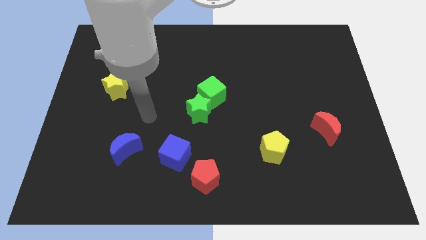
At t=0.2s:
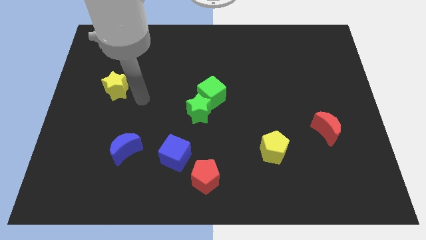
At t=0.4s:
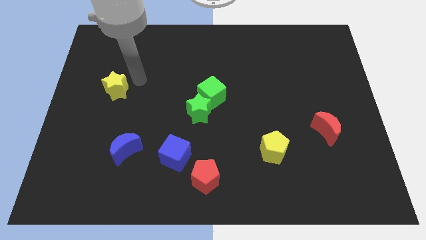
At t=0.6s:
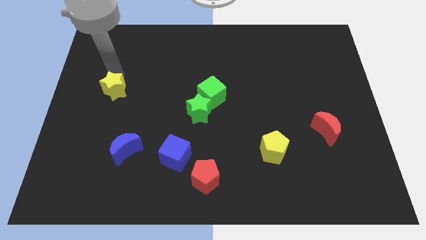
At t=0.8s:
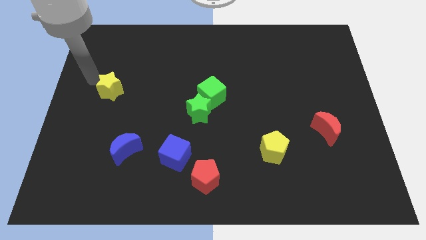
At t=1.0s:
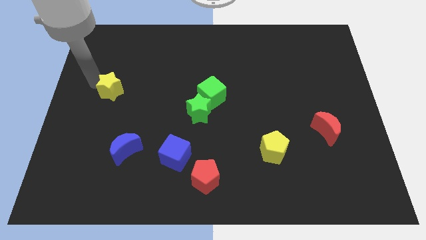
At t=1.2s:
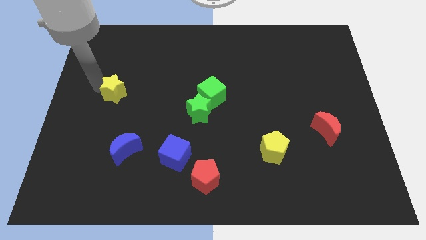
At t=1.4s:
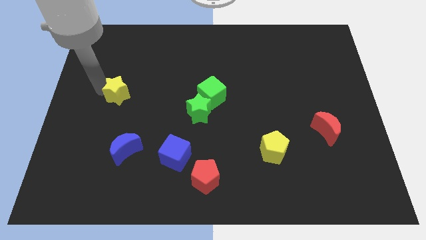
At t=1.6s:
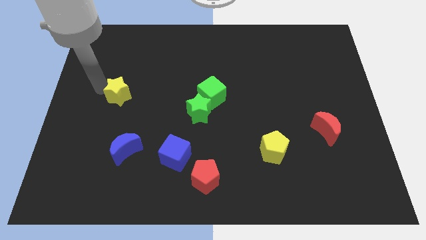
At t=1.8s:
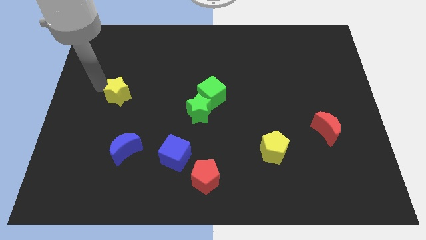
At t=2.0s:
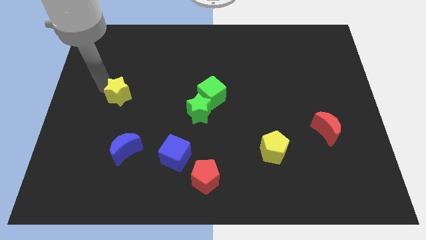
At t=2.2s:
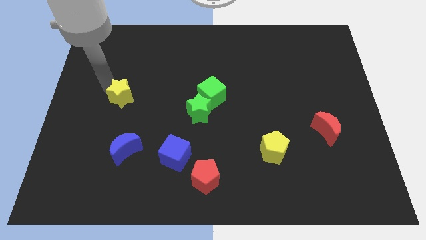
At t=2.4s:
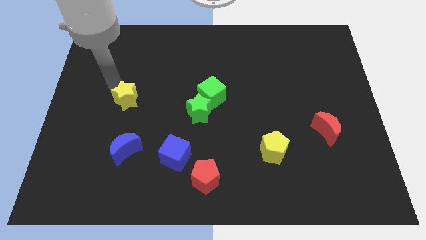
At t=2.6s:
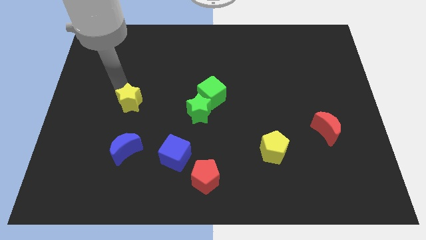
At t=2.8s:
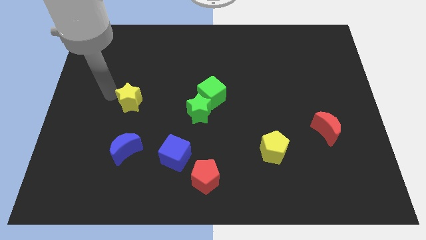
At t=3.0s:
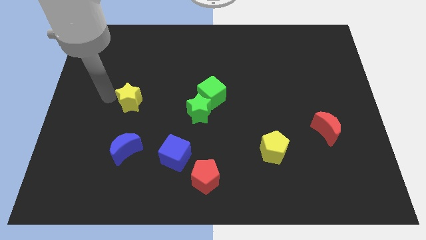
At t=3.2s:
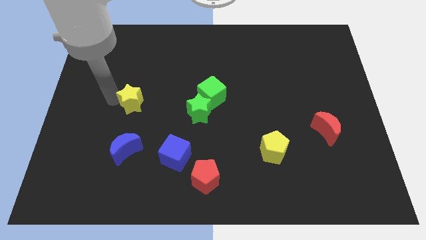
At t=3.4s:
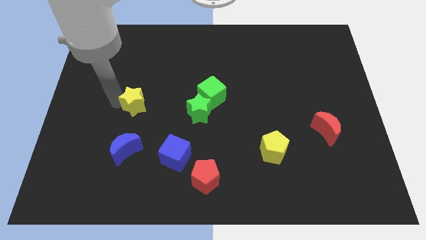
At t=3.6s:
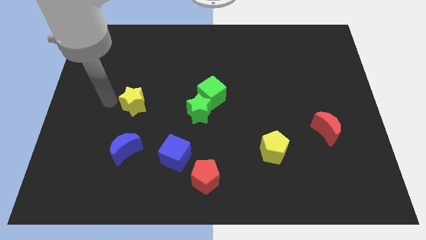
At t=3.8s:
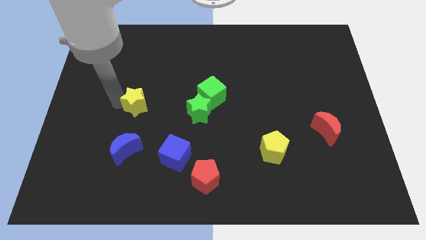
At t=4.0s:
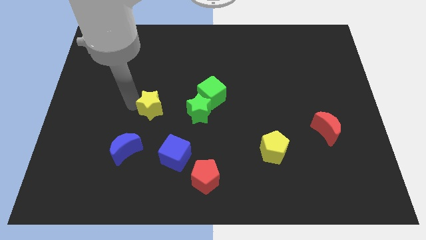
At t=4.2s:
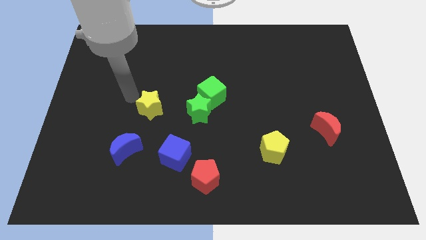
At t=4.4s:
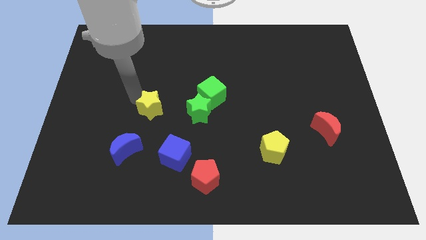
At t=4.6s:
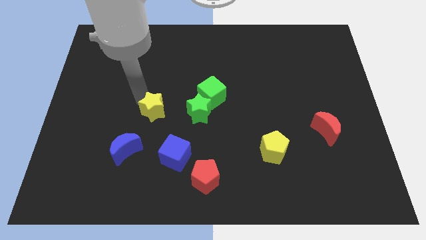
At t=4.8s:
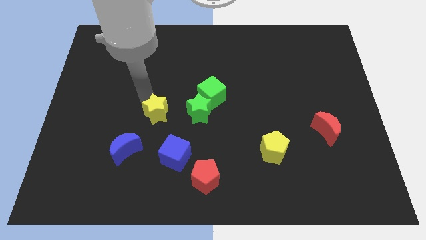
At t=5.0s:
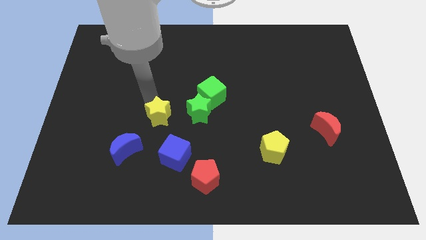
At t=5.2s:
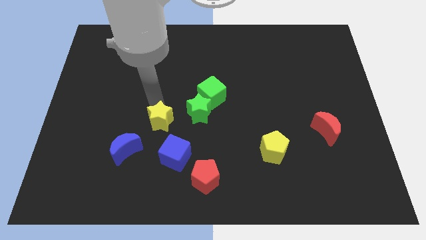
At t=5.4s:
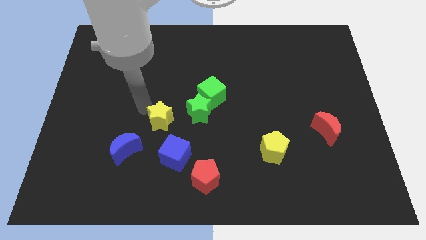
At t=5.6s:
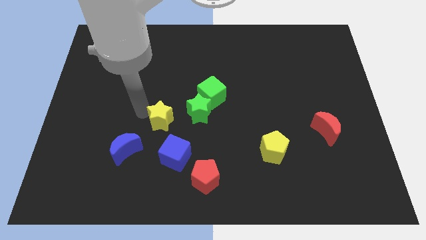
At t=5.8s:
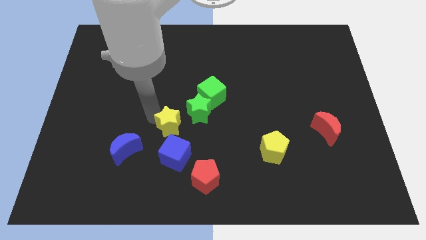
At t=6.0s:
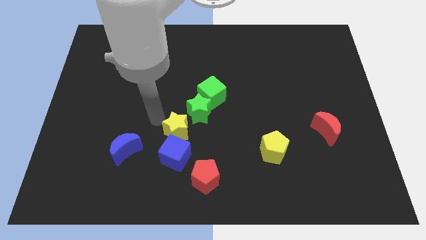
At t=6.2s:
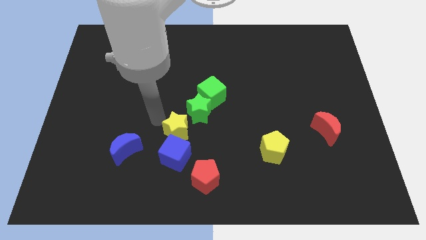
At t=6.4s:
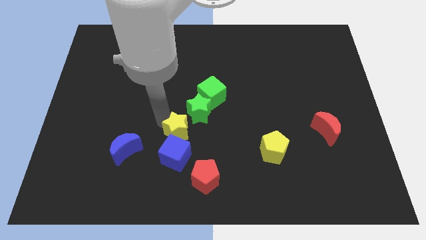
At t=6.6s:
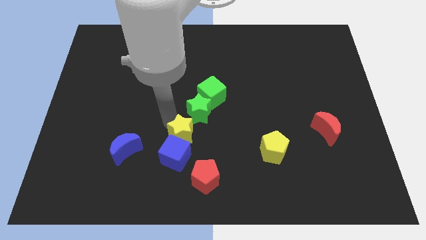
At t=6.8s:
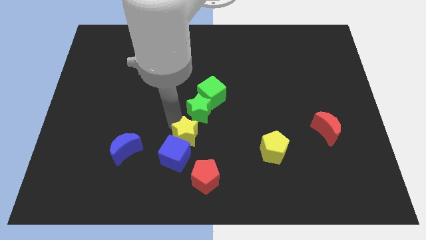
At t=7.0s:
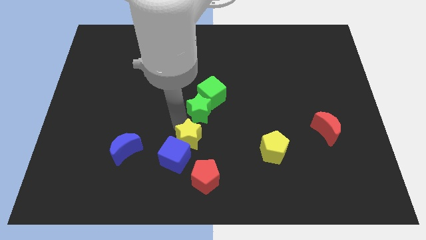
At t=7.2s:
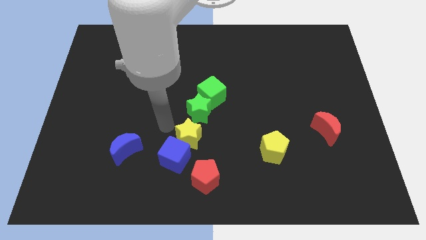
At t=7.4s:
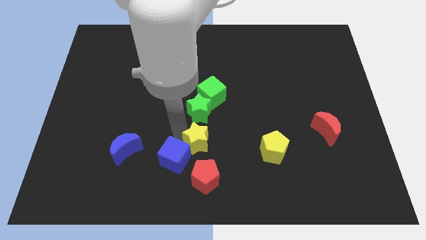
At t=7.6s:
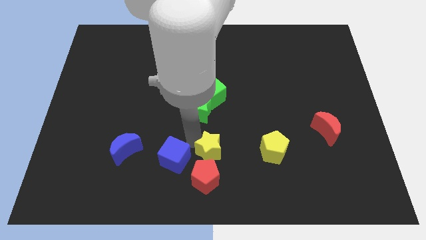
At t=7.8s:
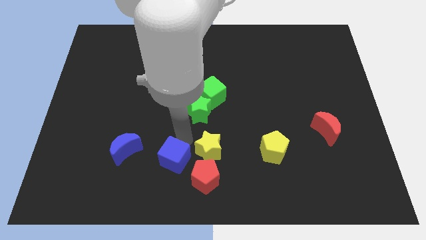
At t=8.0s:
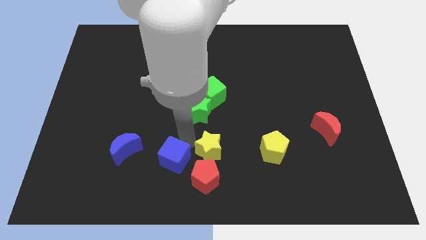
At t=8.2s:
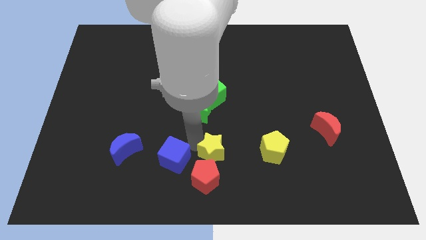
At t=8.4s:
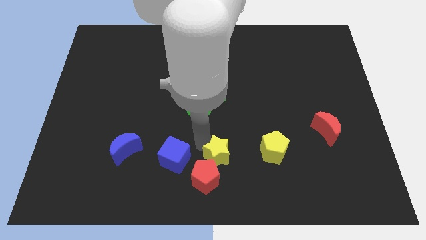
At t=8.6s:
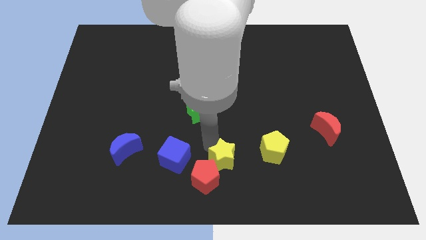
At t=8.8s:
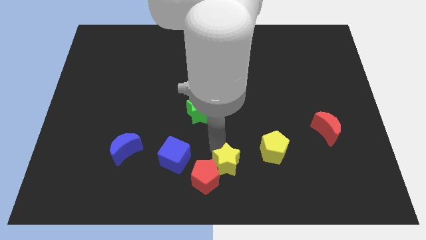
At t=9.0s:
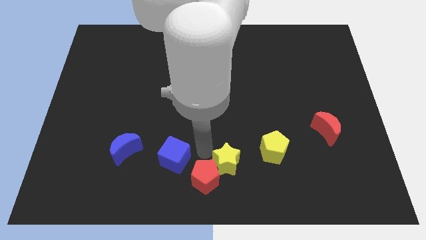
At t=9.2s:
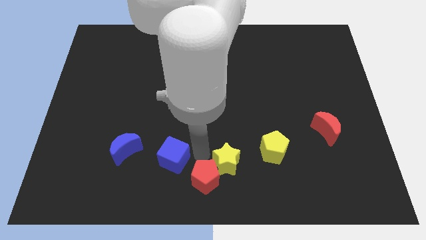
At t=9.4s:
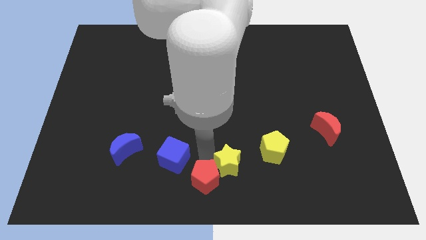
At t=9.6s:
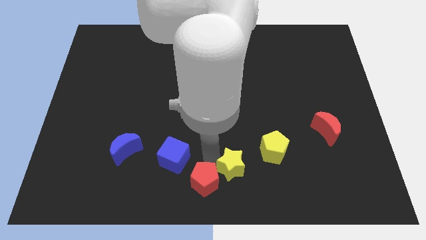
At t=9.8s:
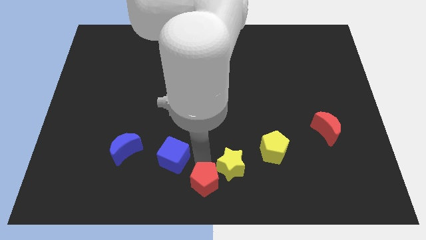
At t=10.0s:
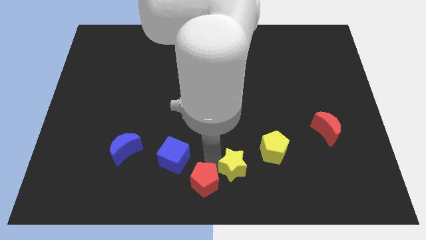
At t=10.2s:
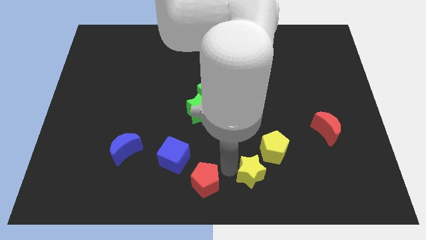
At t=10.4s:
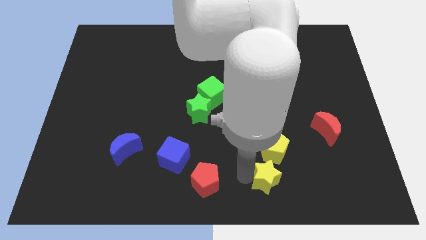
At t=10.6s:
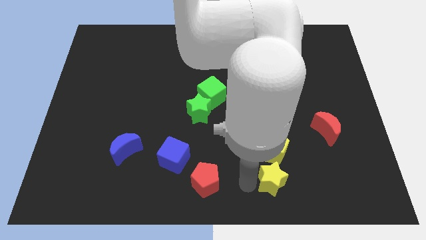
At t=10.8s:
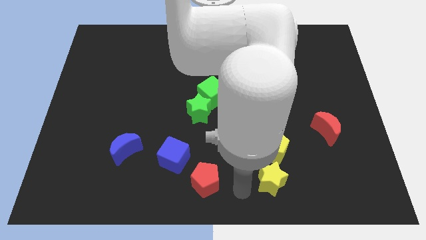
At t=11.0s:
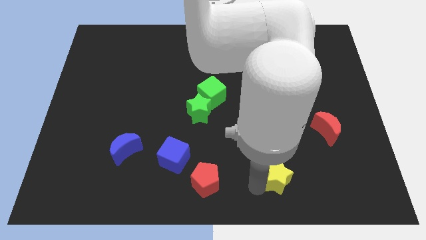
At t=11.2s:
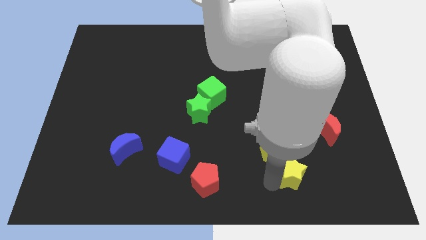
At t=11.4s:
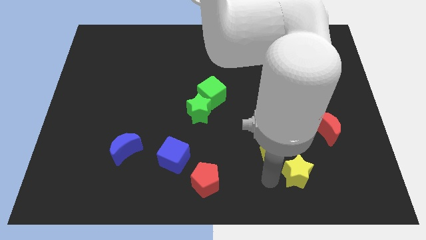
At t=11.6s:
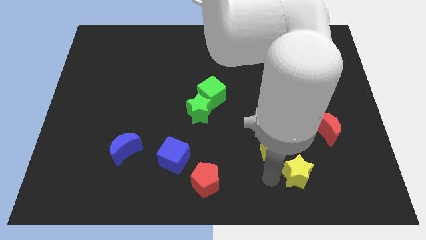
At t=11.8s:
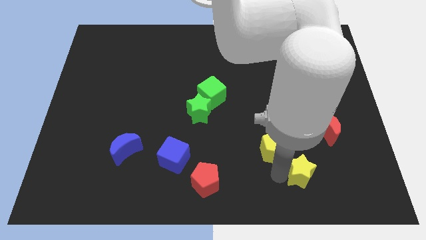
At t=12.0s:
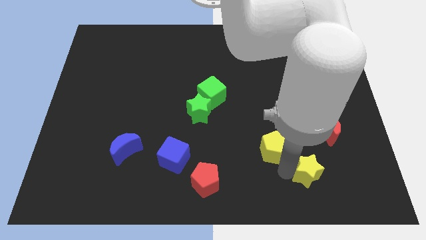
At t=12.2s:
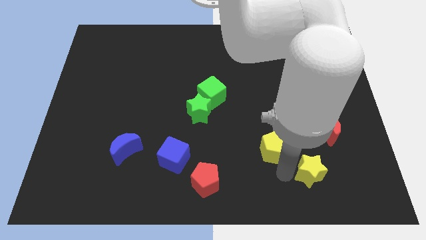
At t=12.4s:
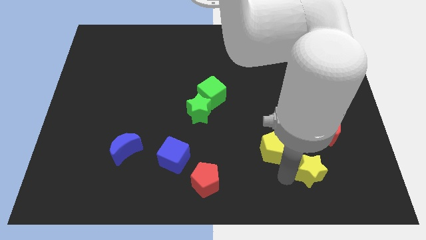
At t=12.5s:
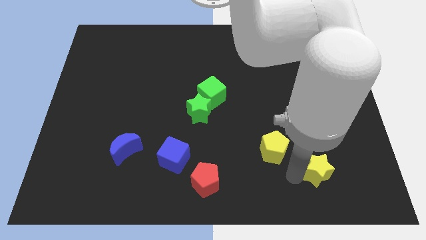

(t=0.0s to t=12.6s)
slide the yellow star to the bottom side of the red moon
